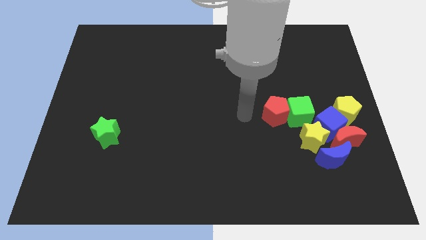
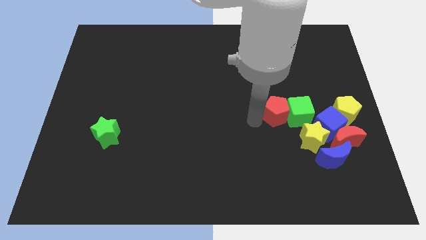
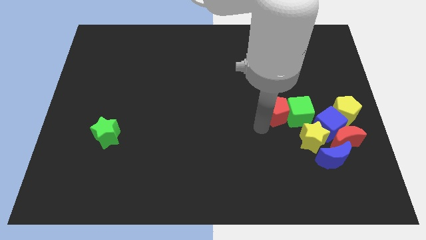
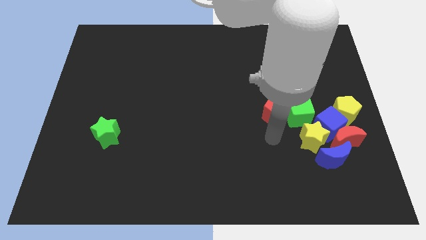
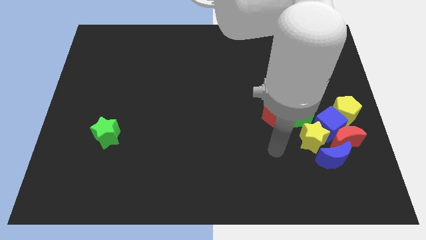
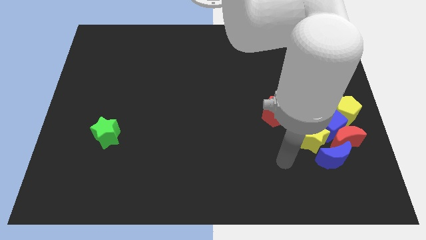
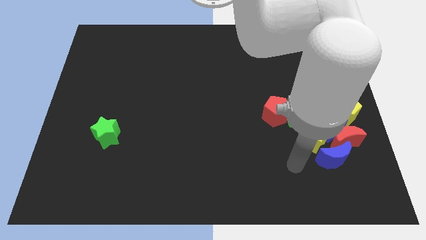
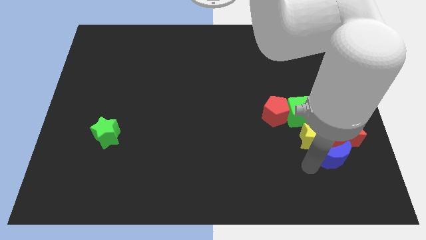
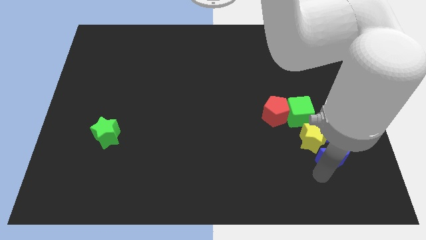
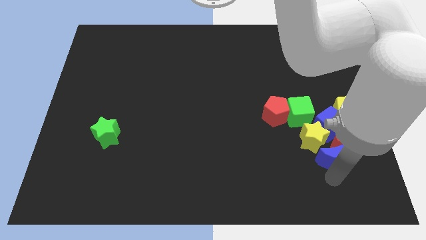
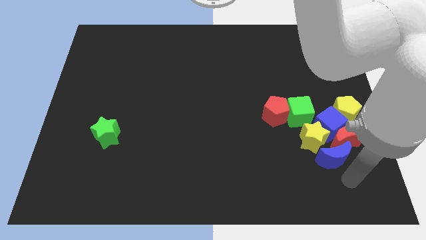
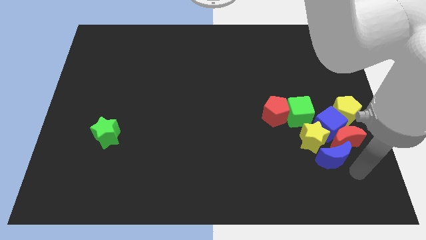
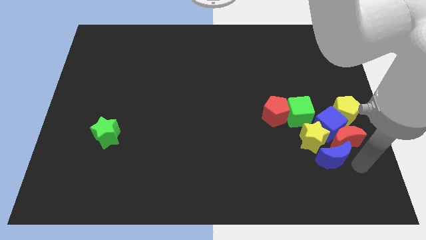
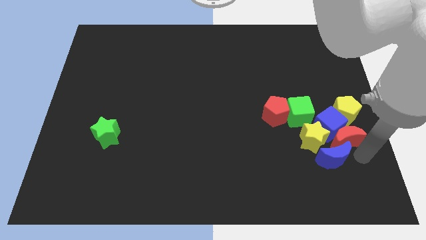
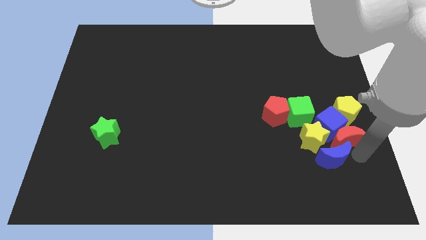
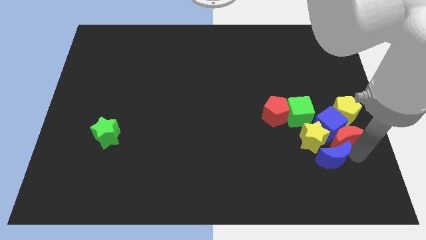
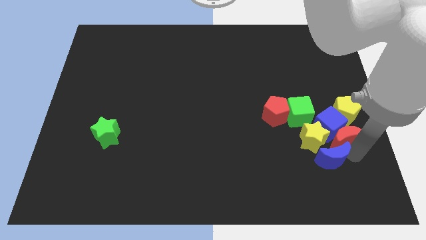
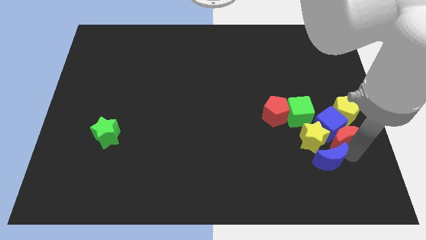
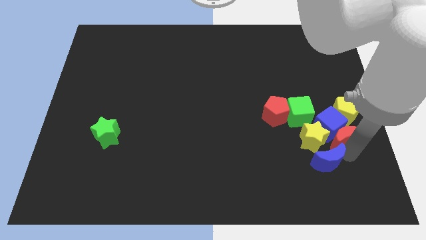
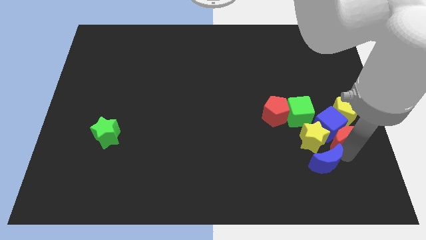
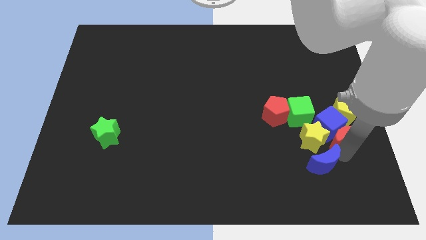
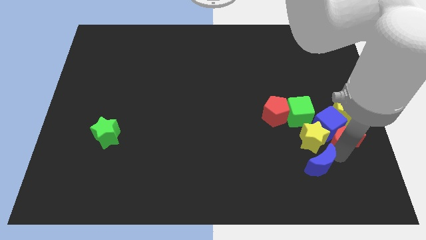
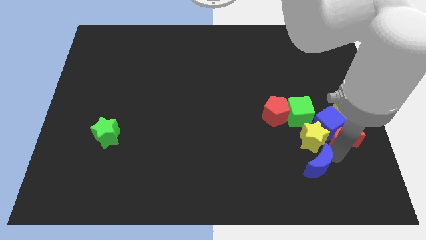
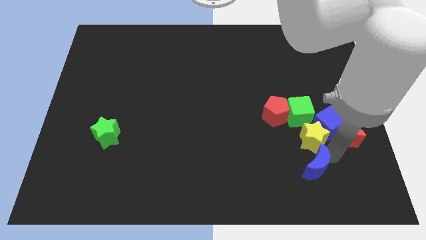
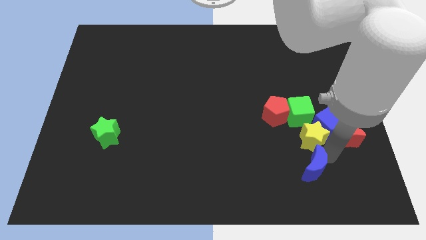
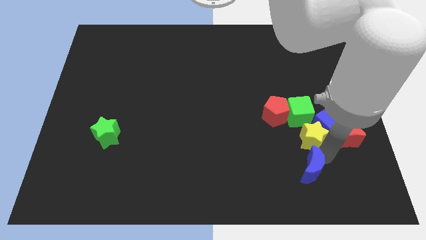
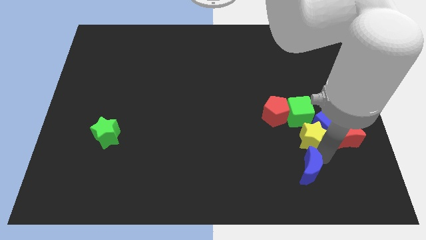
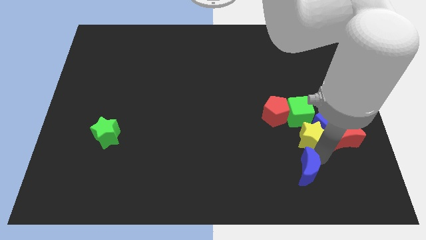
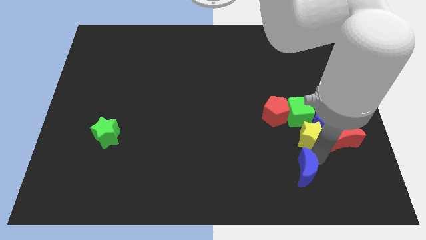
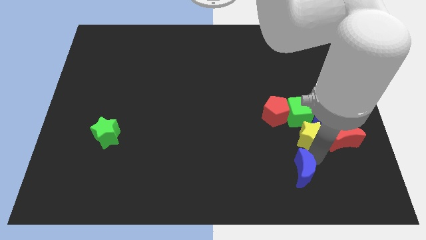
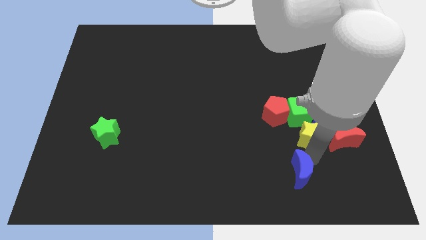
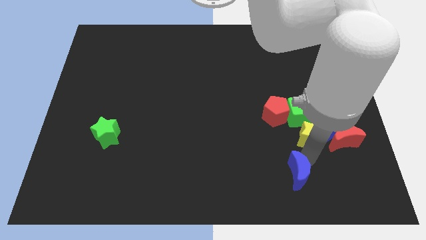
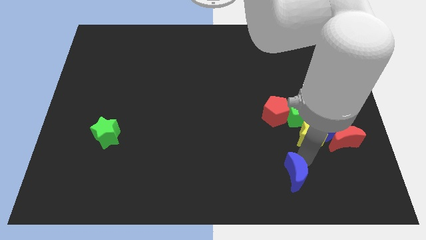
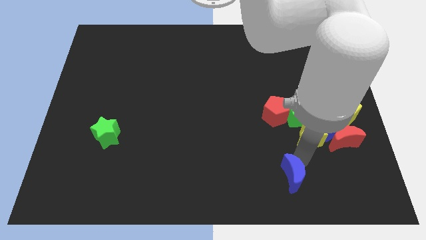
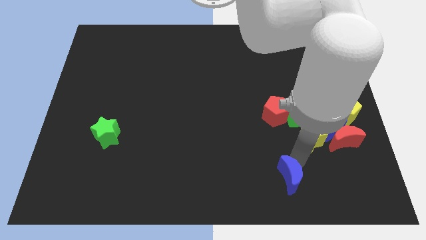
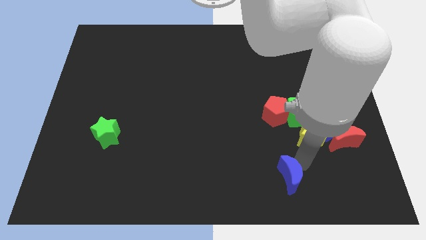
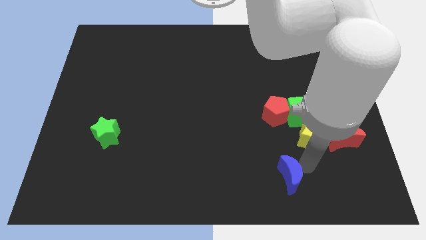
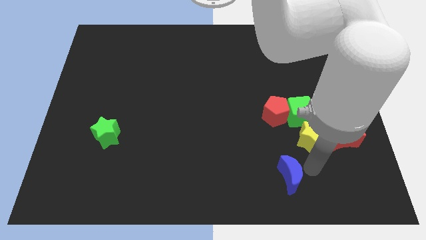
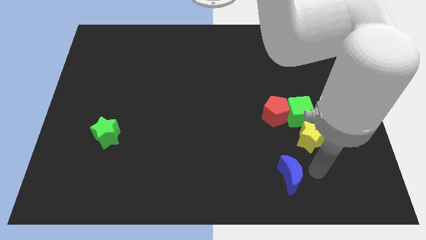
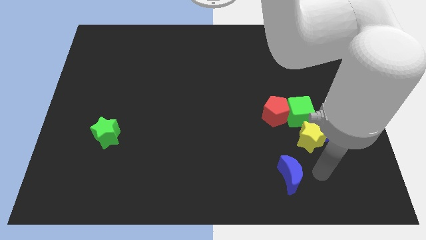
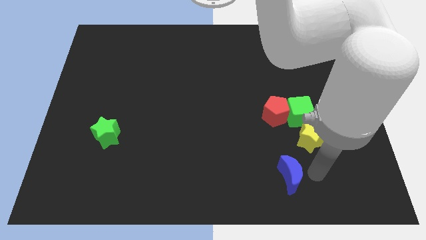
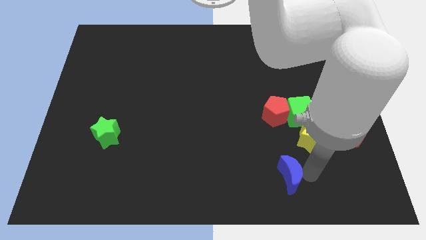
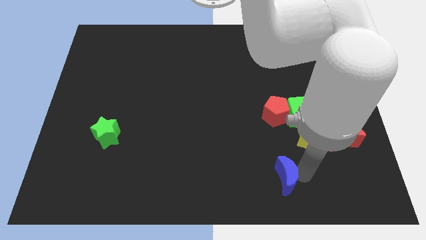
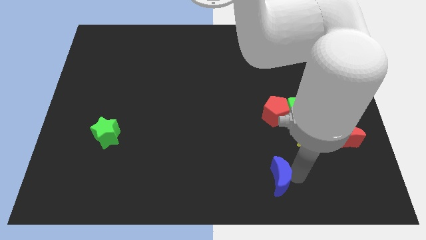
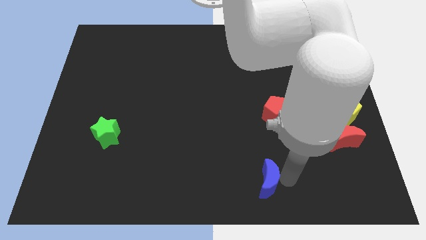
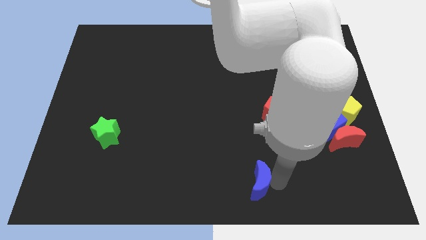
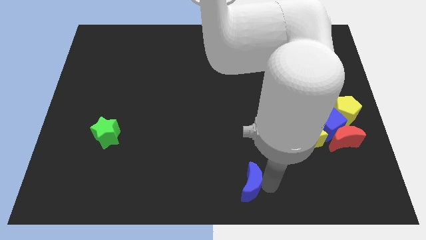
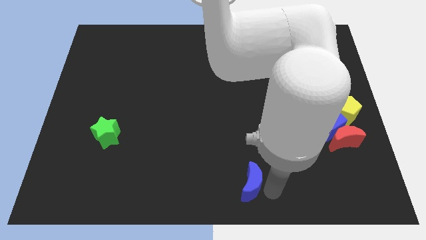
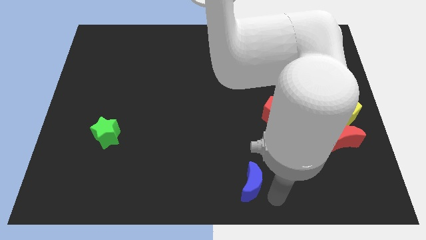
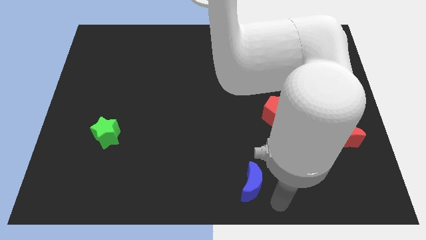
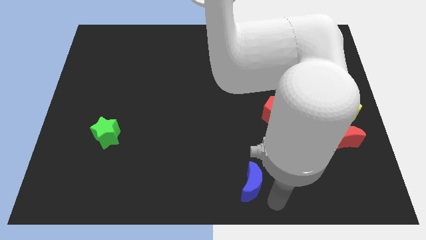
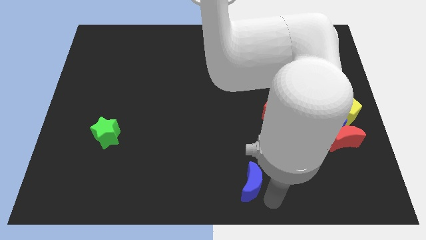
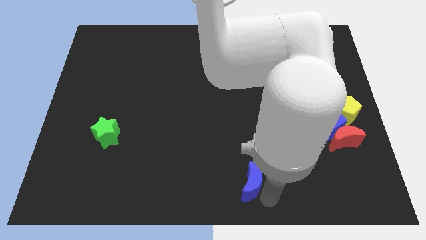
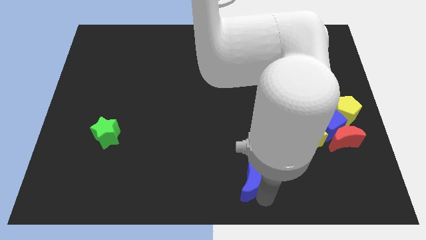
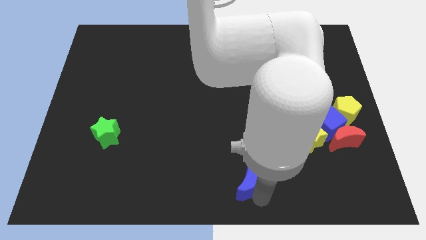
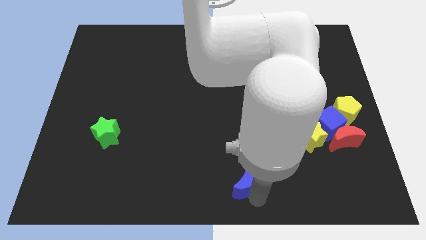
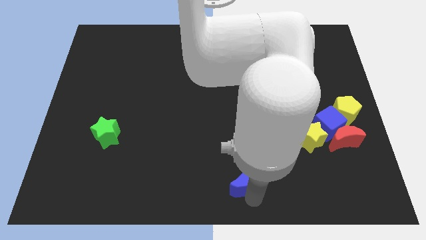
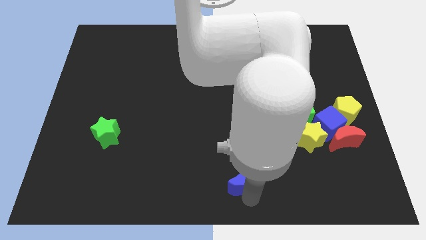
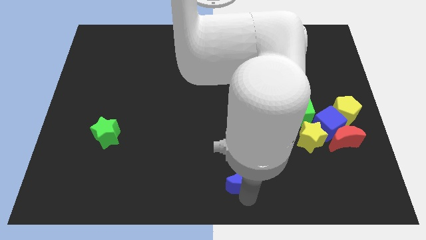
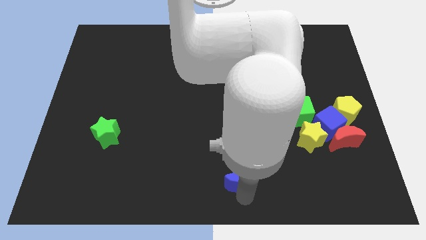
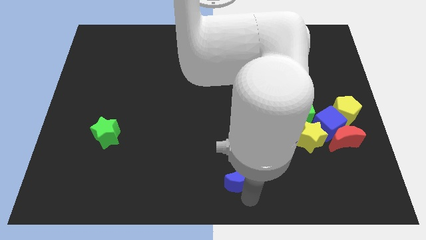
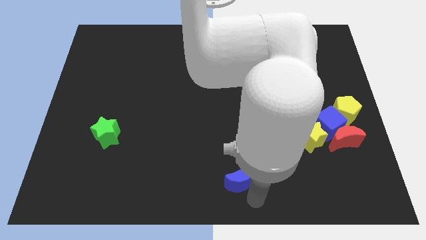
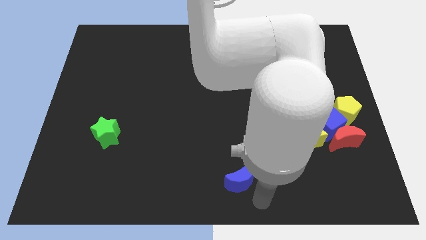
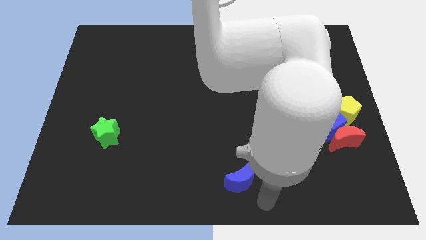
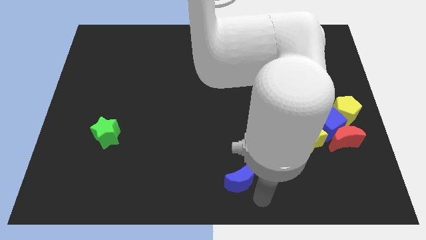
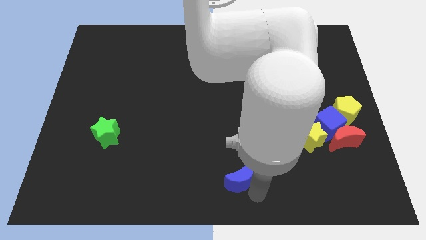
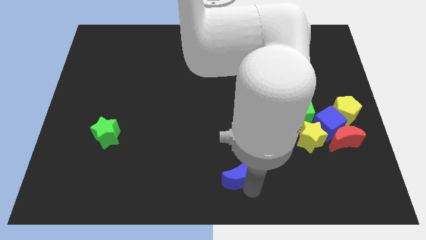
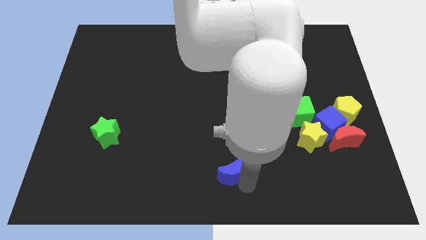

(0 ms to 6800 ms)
slide the blue moon left

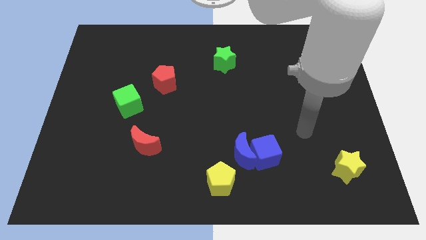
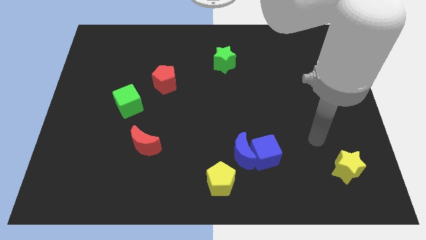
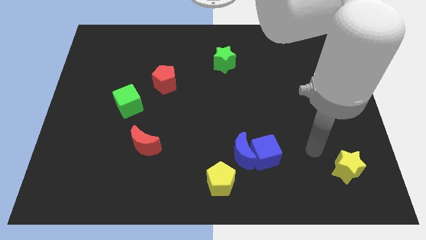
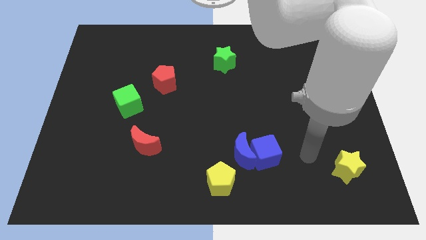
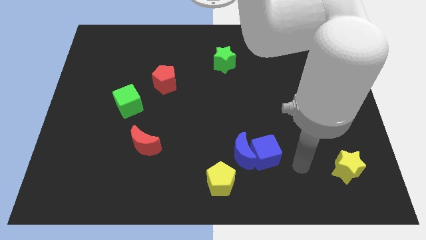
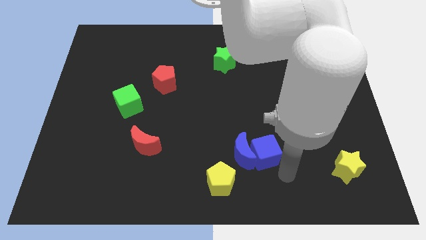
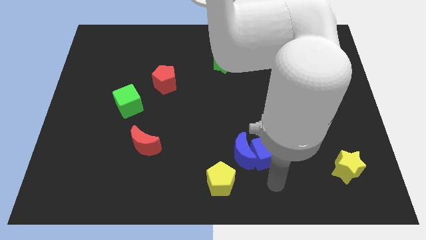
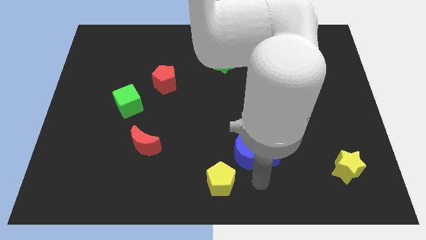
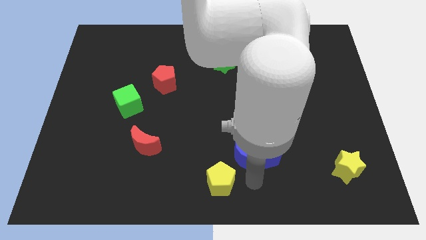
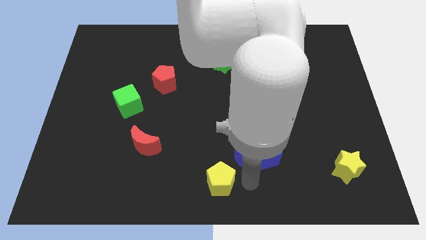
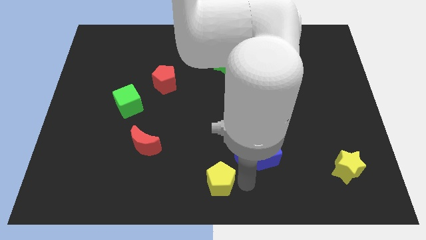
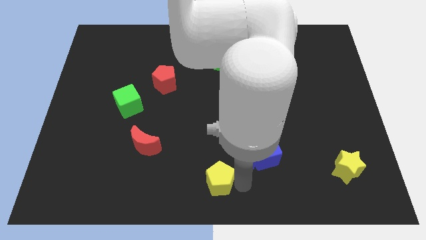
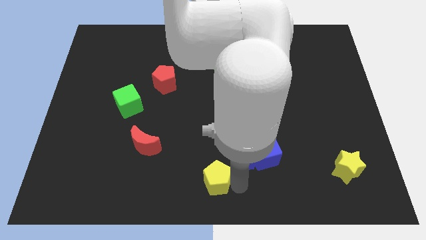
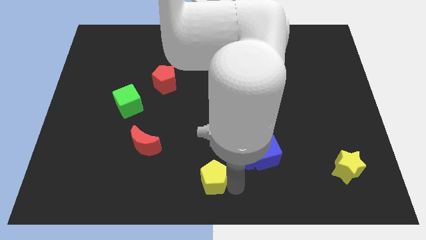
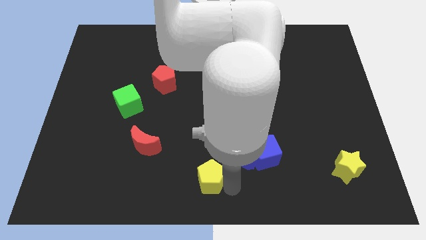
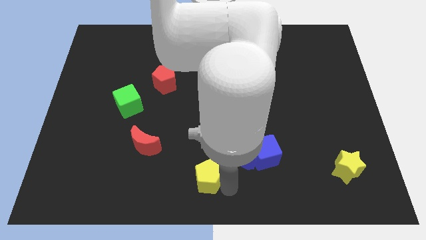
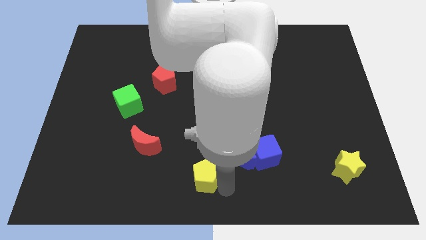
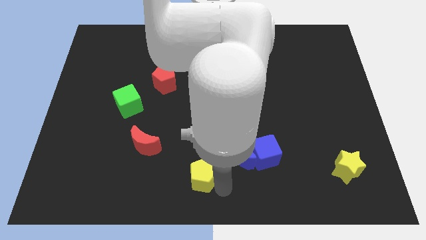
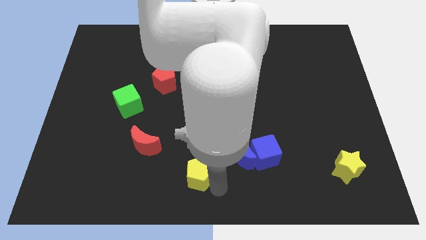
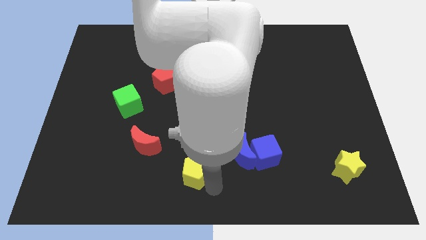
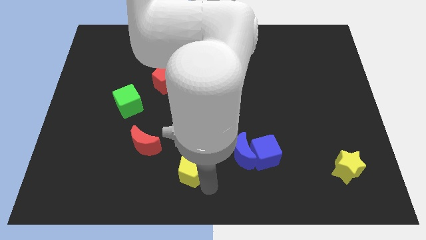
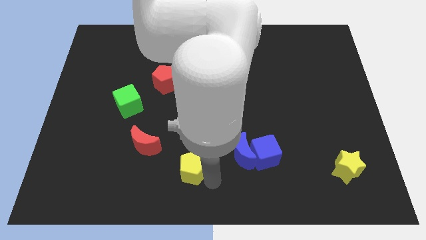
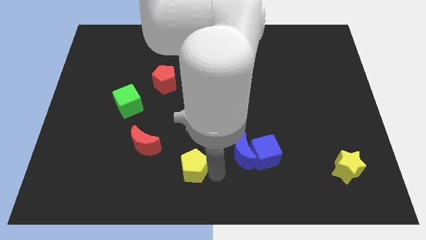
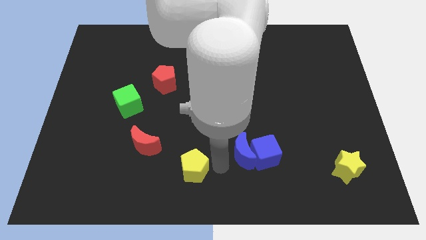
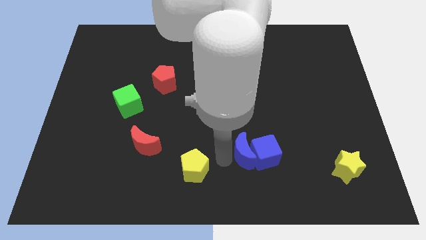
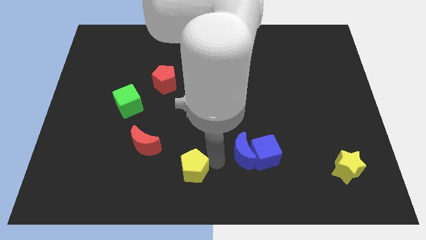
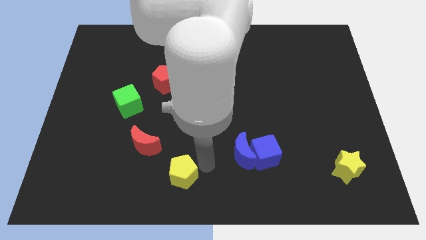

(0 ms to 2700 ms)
push the yellow pentagon a little bit left
